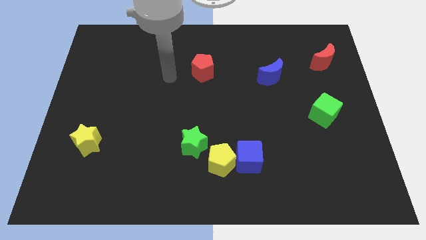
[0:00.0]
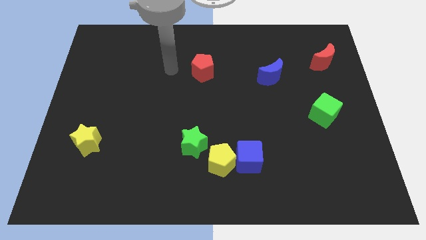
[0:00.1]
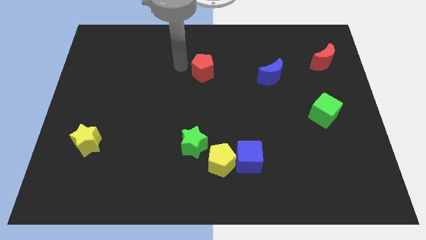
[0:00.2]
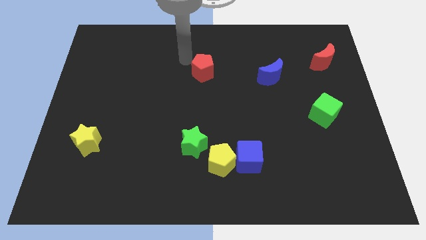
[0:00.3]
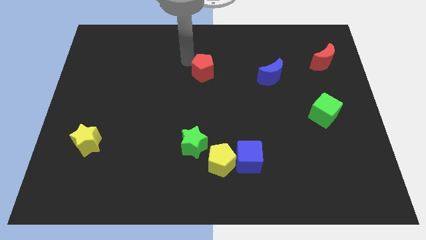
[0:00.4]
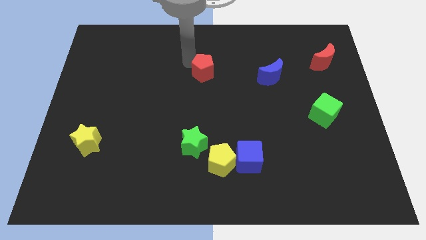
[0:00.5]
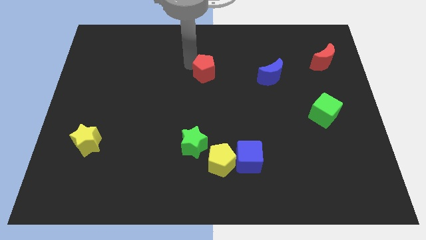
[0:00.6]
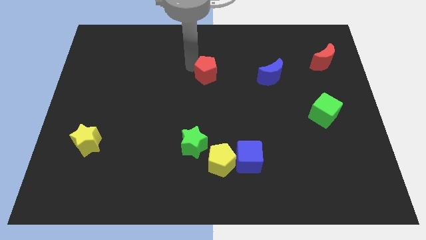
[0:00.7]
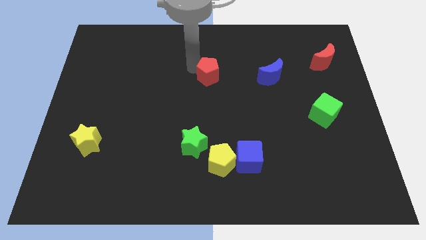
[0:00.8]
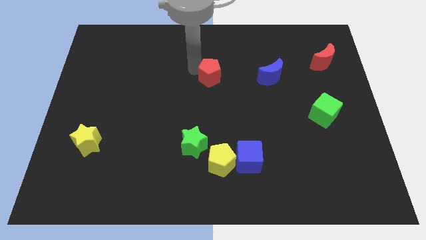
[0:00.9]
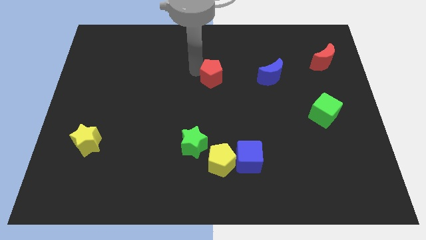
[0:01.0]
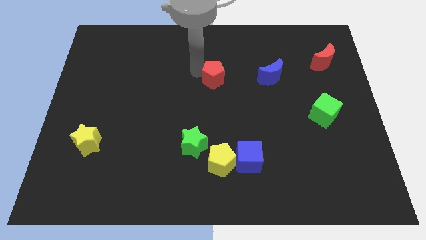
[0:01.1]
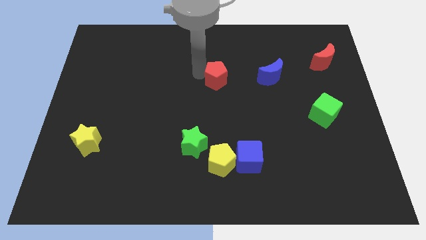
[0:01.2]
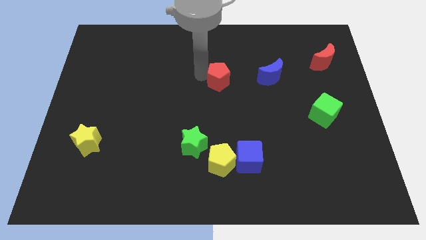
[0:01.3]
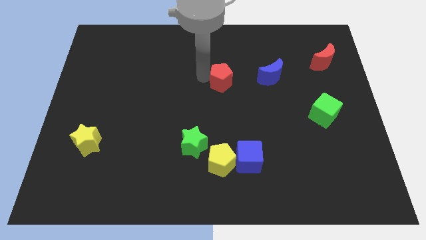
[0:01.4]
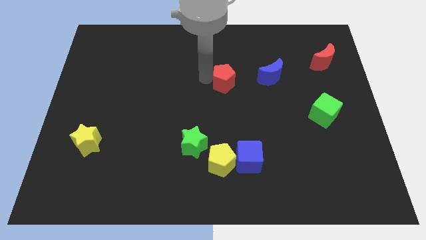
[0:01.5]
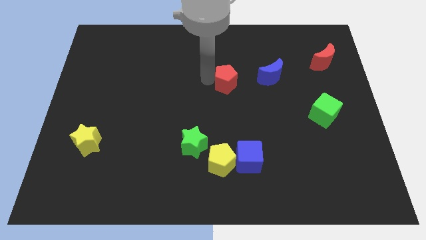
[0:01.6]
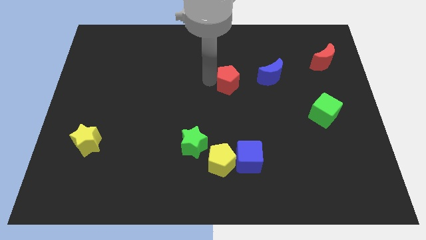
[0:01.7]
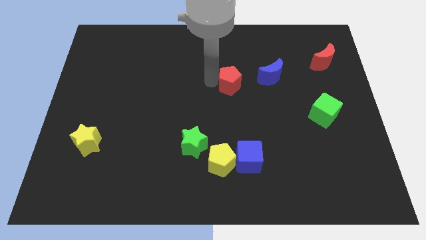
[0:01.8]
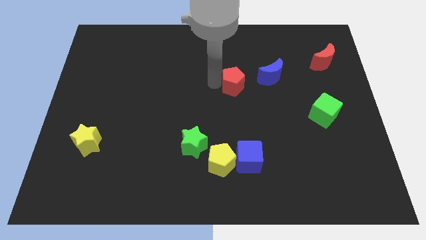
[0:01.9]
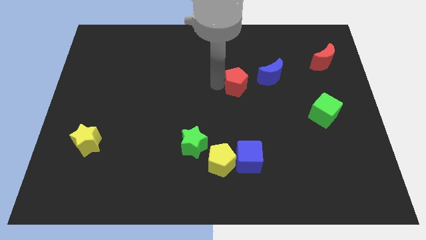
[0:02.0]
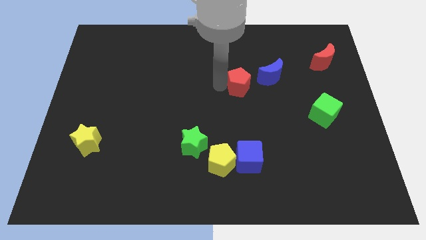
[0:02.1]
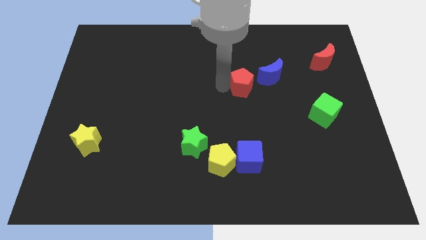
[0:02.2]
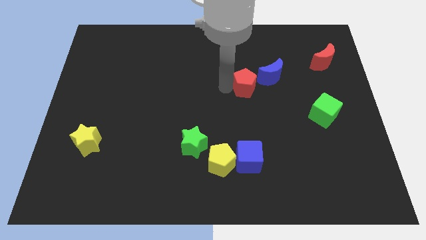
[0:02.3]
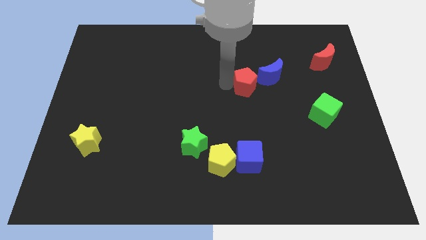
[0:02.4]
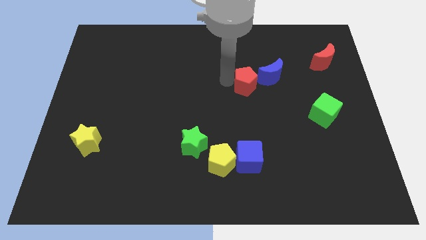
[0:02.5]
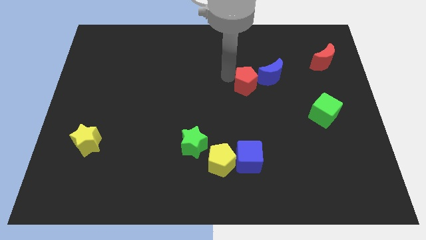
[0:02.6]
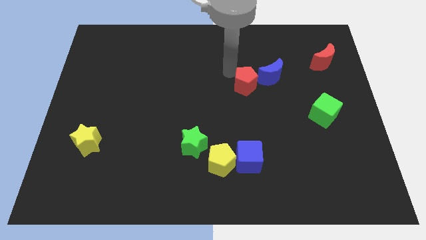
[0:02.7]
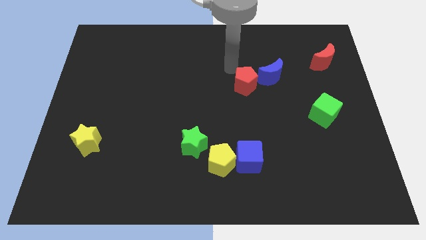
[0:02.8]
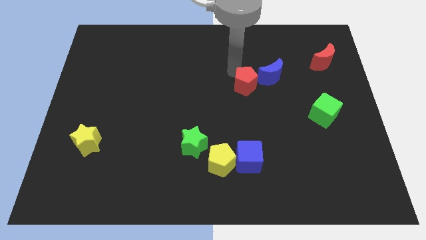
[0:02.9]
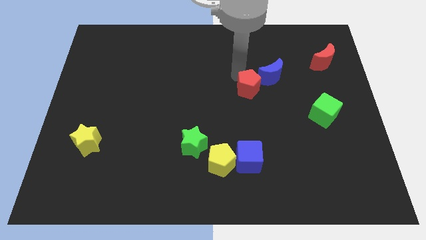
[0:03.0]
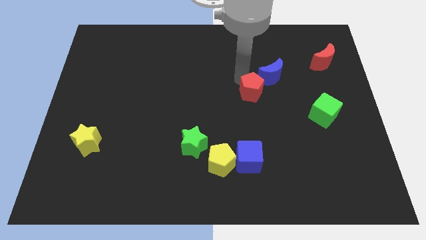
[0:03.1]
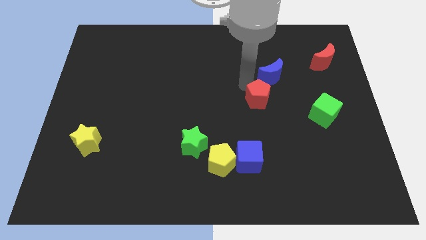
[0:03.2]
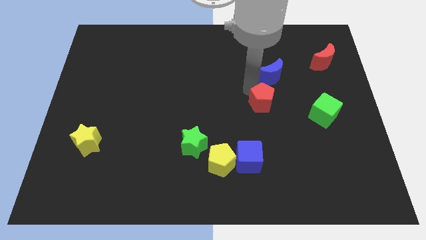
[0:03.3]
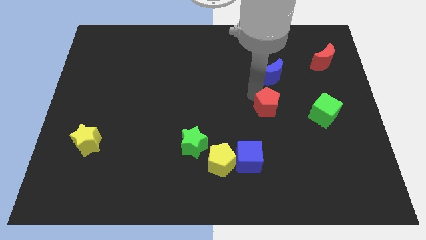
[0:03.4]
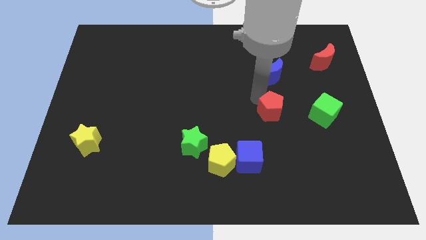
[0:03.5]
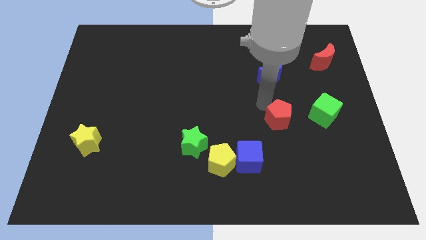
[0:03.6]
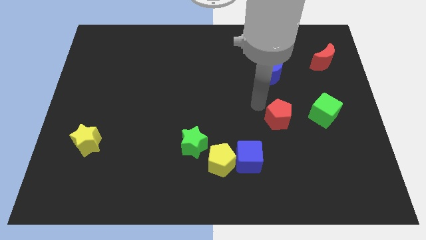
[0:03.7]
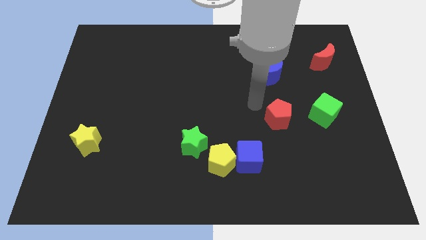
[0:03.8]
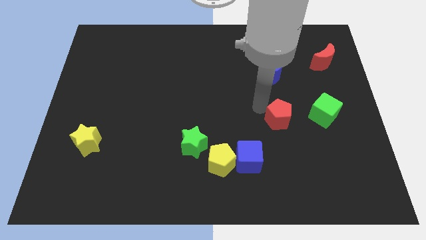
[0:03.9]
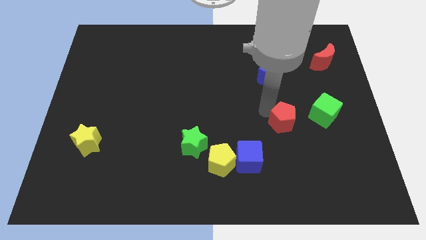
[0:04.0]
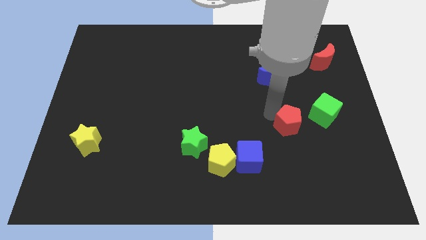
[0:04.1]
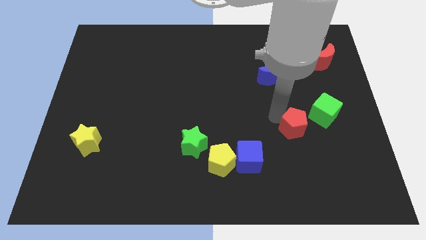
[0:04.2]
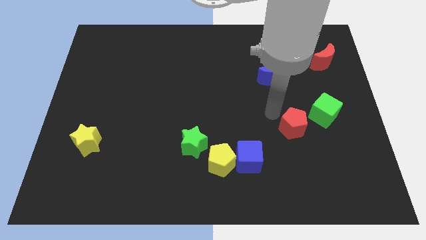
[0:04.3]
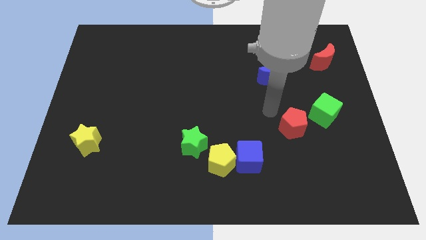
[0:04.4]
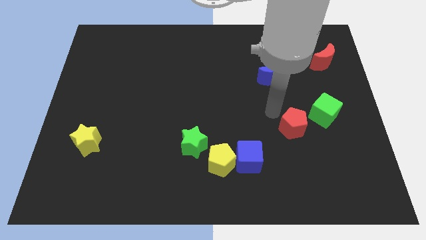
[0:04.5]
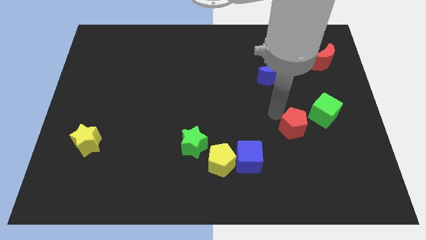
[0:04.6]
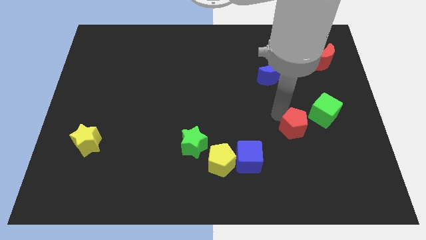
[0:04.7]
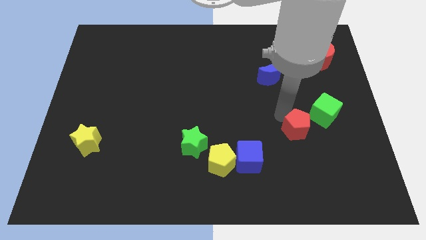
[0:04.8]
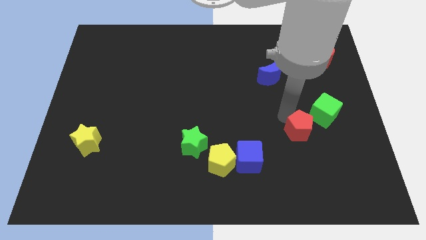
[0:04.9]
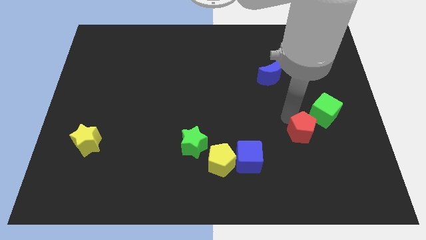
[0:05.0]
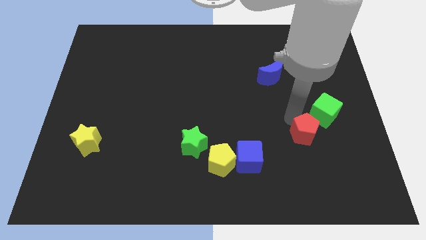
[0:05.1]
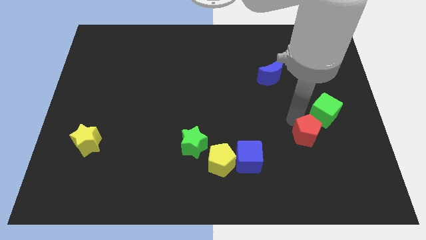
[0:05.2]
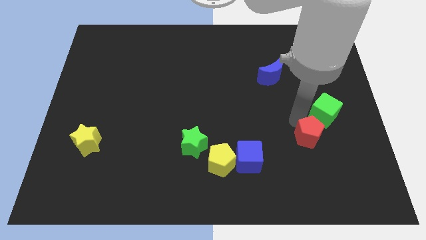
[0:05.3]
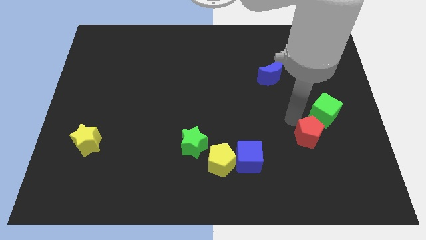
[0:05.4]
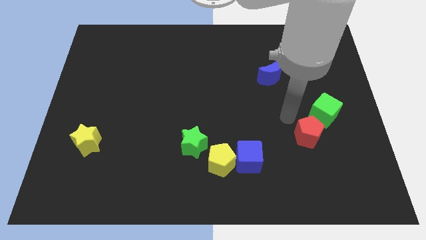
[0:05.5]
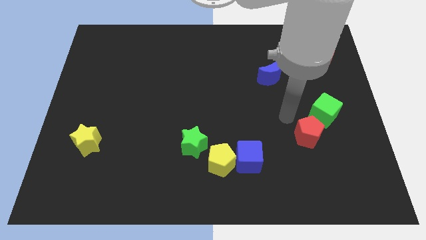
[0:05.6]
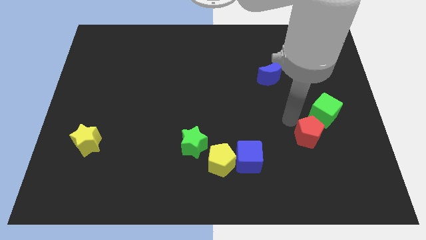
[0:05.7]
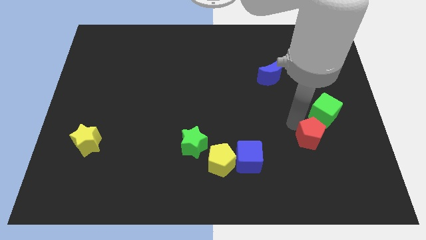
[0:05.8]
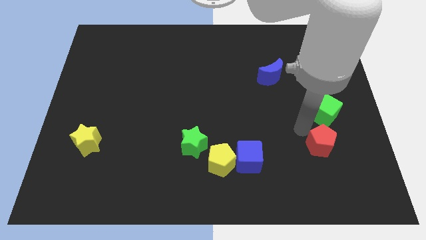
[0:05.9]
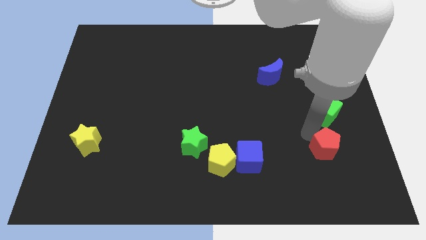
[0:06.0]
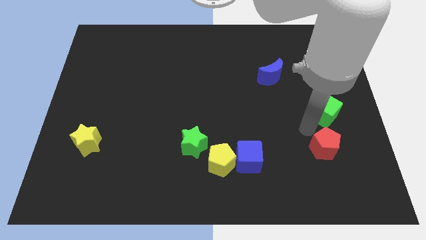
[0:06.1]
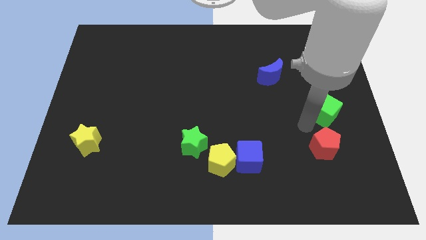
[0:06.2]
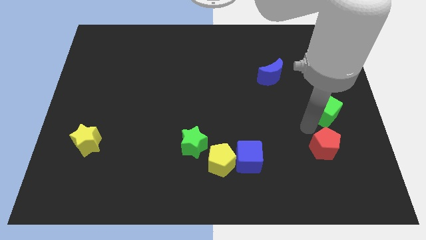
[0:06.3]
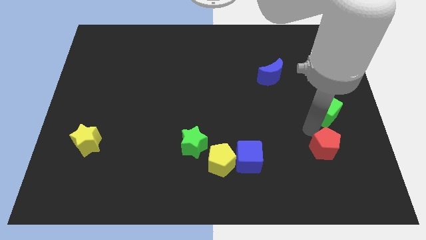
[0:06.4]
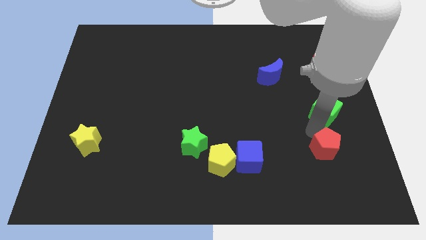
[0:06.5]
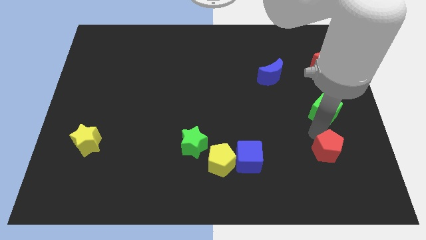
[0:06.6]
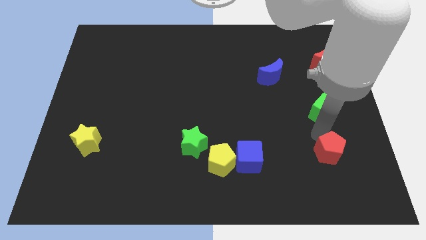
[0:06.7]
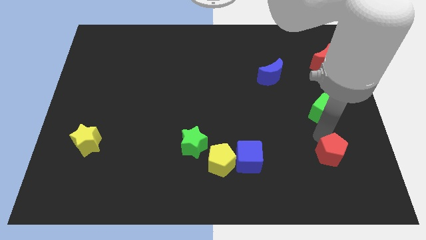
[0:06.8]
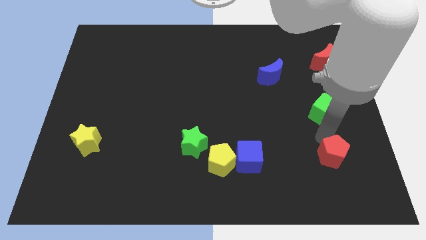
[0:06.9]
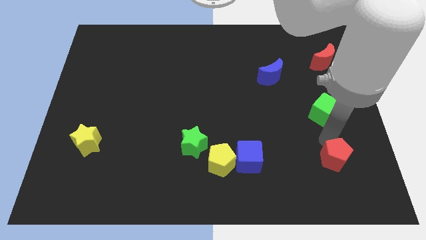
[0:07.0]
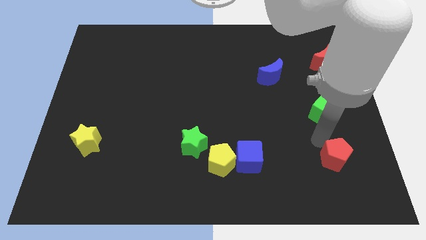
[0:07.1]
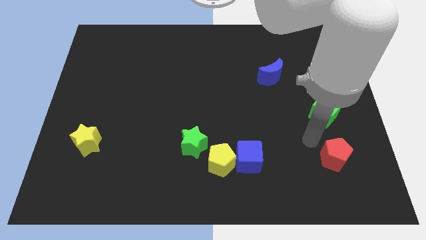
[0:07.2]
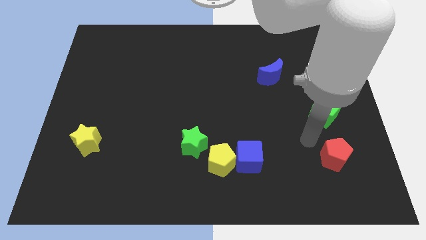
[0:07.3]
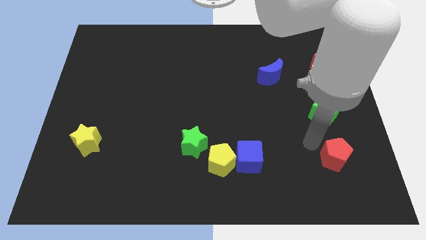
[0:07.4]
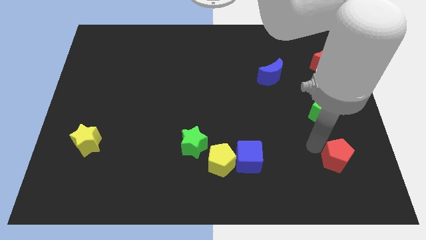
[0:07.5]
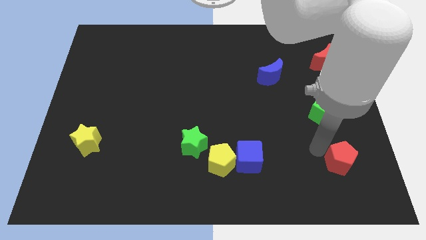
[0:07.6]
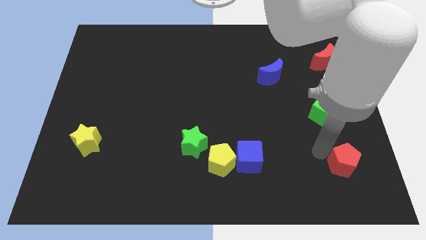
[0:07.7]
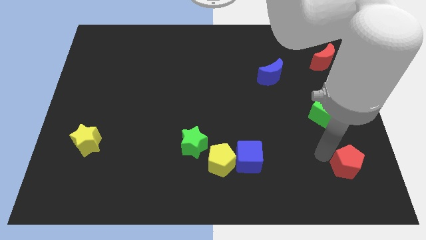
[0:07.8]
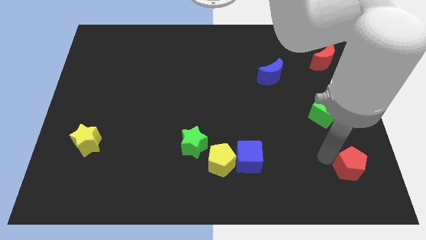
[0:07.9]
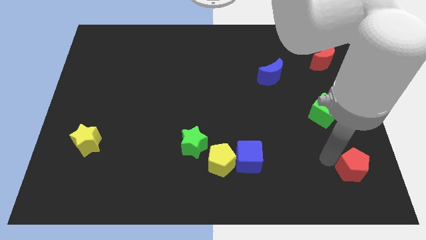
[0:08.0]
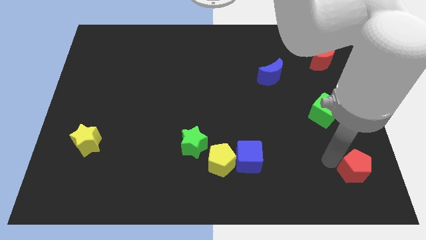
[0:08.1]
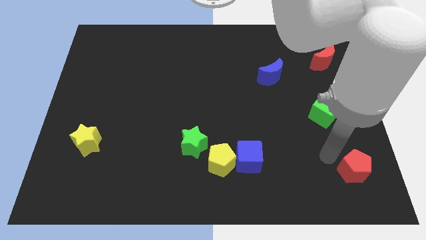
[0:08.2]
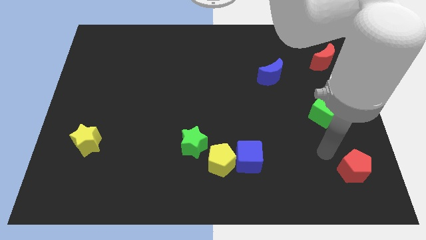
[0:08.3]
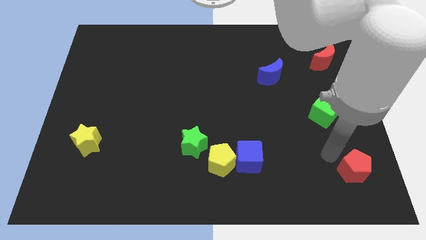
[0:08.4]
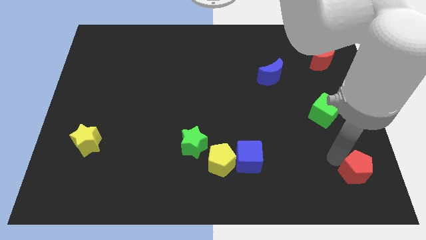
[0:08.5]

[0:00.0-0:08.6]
put the red pentagon to the lower right corner
